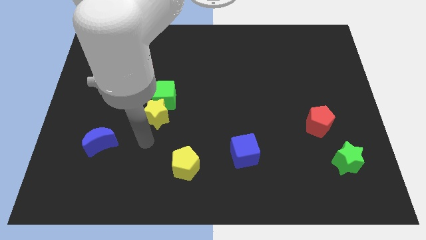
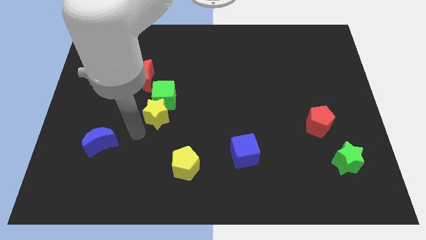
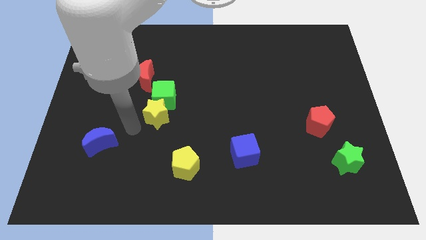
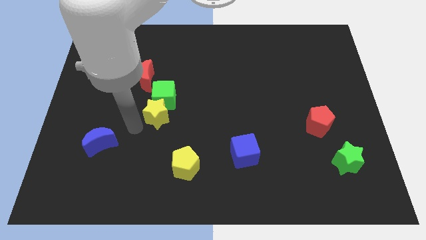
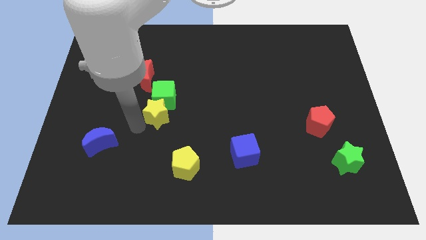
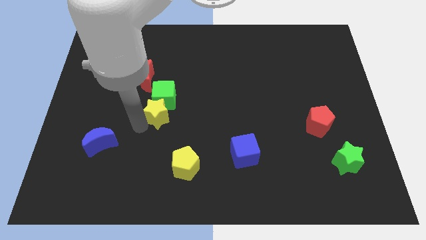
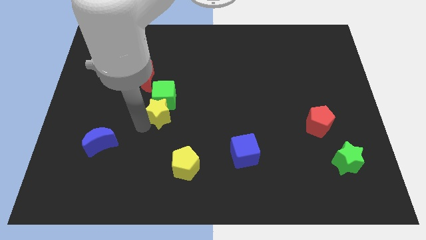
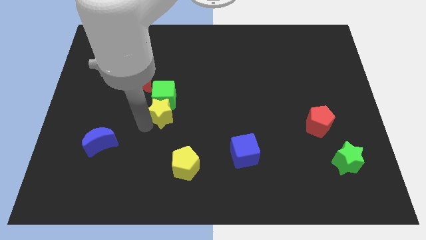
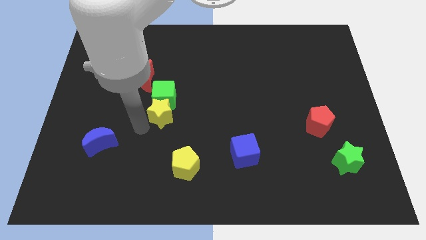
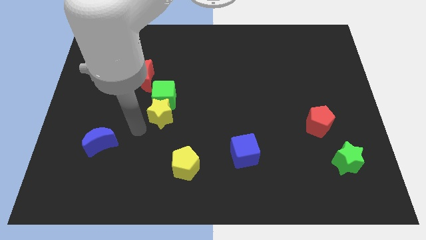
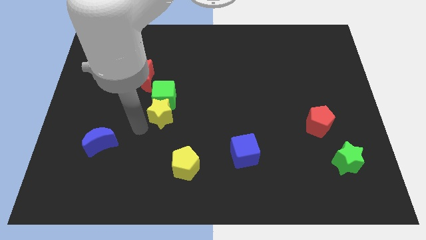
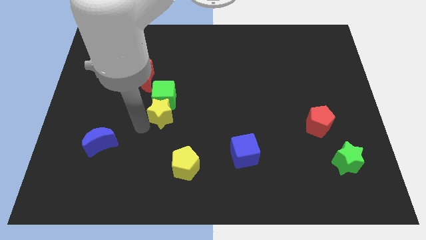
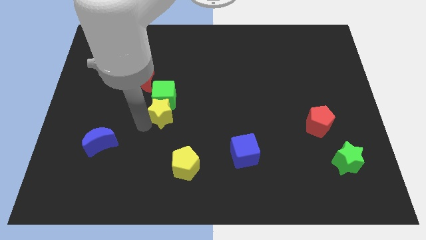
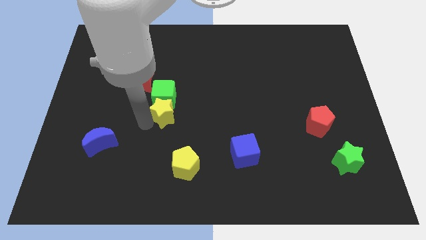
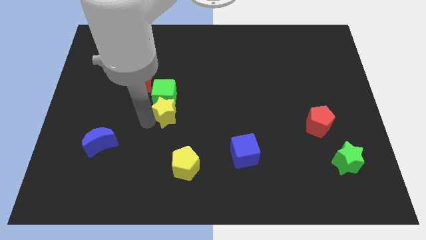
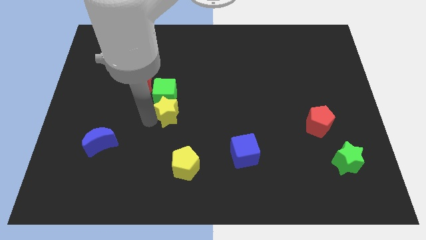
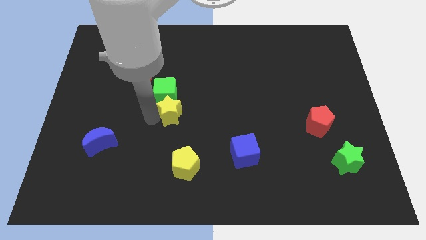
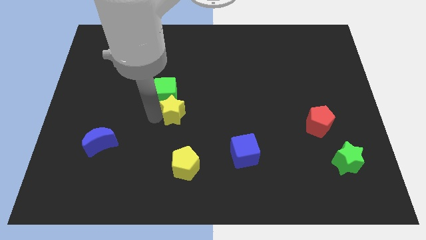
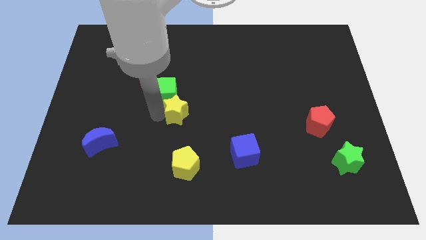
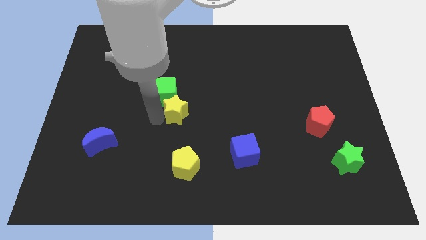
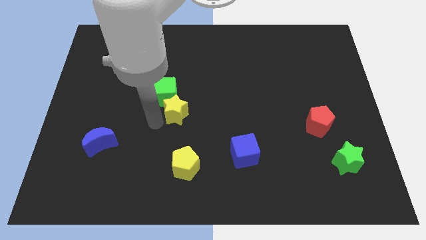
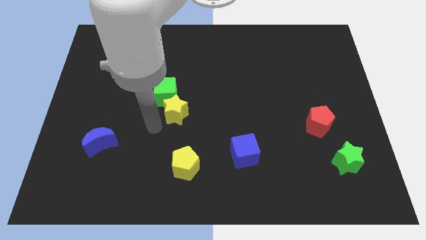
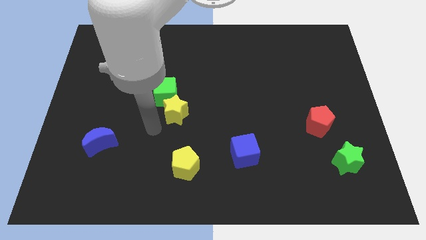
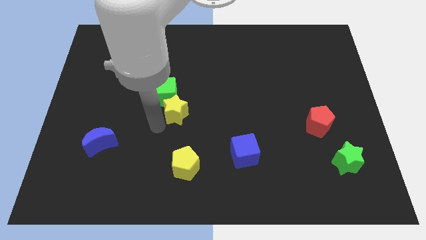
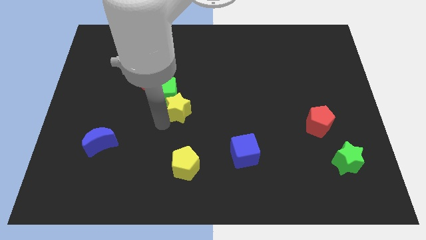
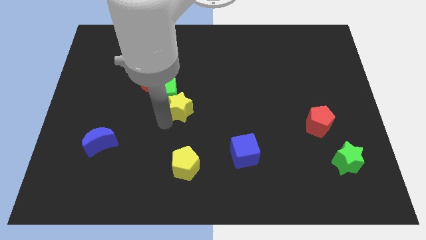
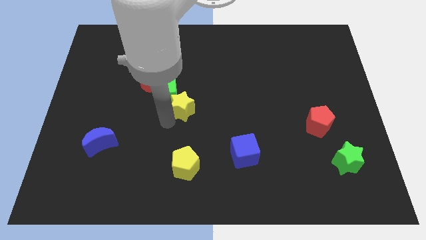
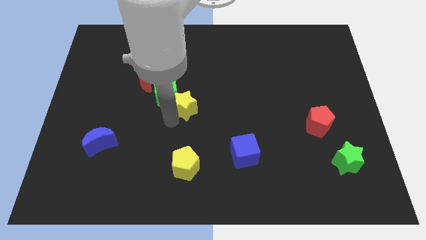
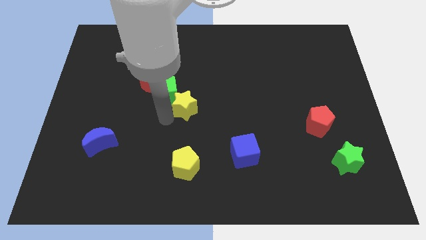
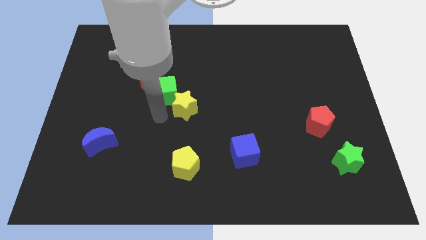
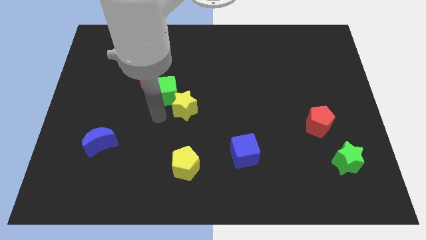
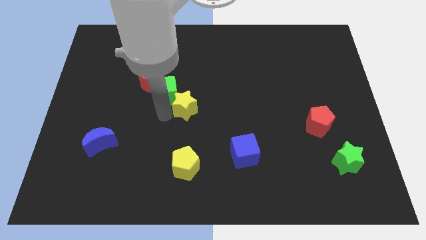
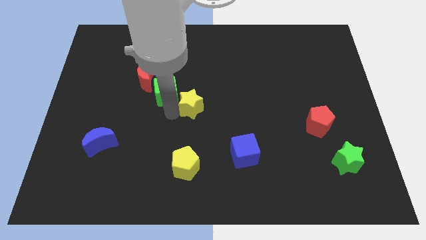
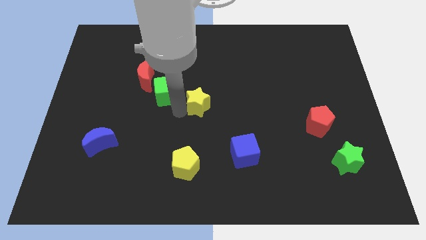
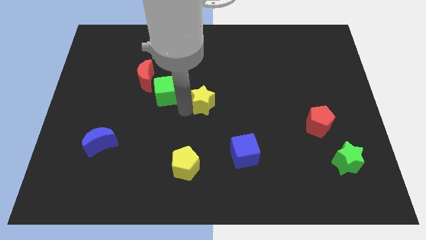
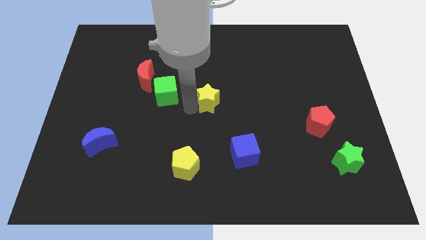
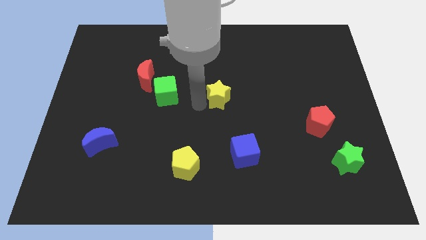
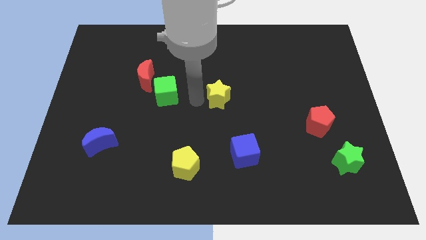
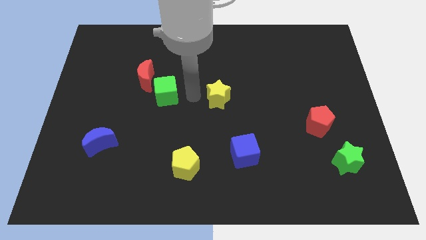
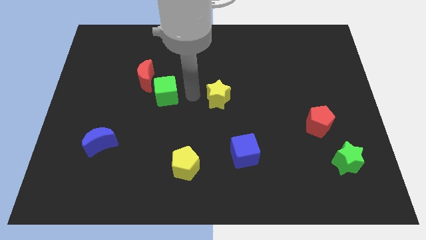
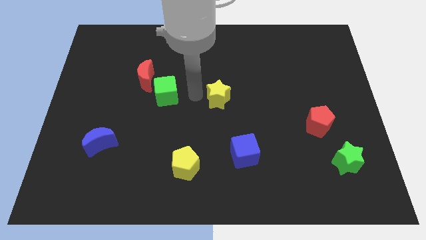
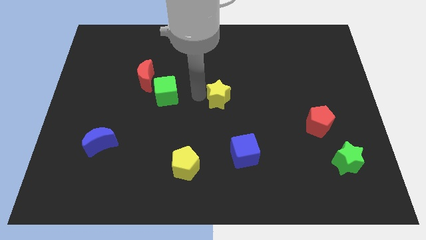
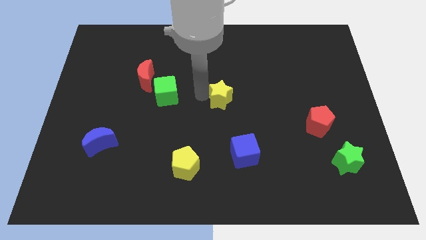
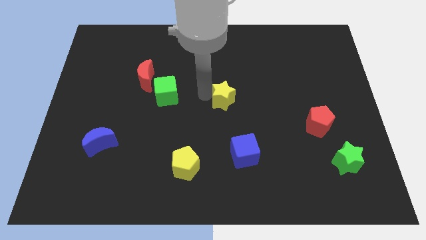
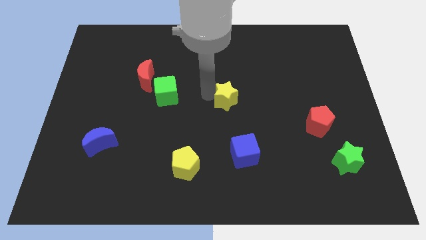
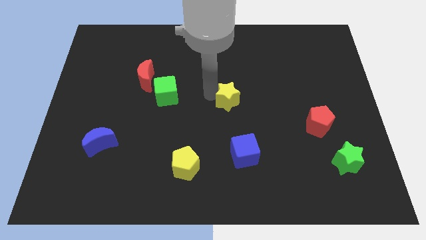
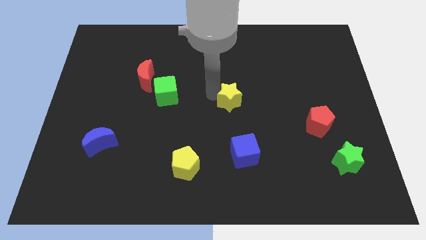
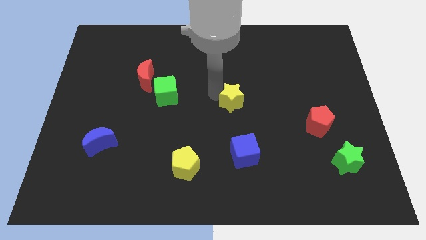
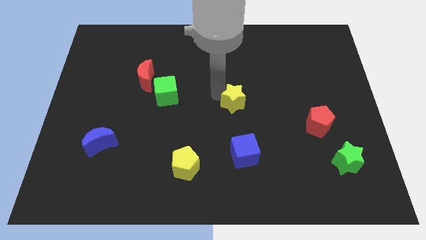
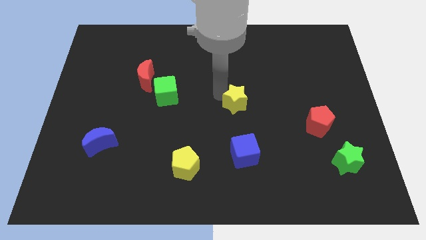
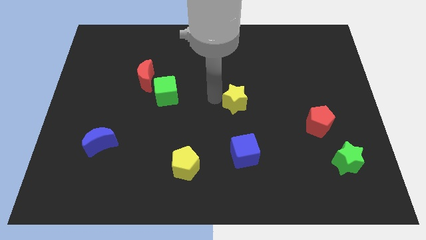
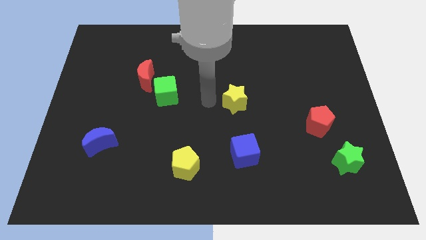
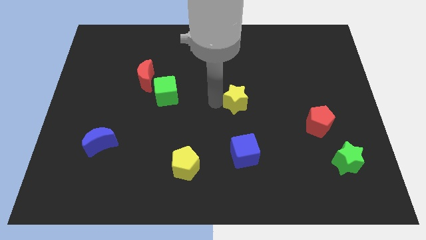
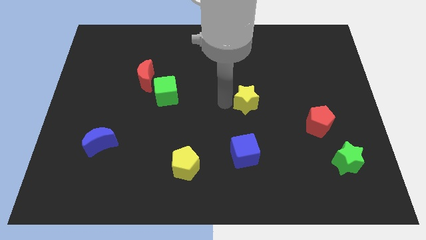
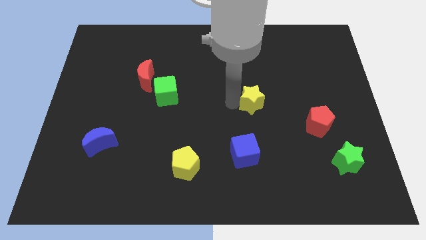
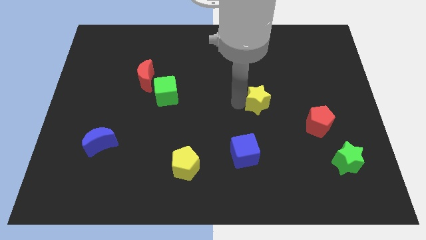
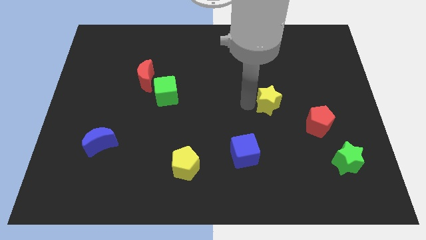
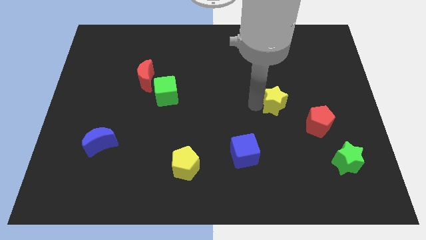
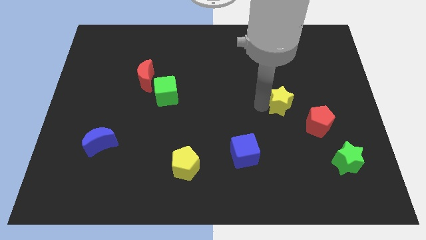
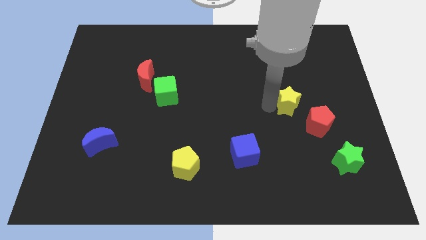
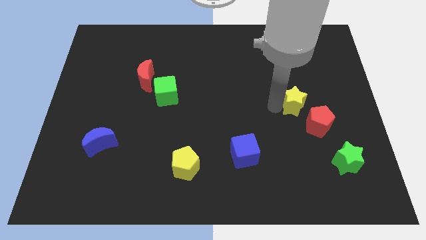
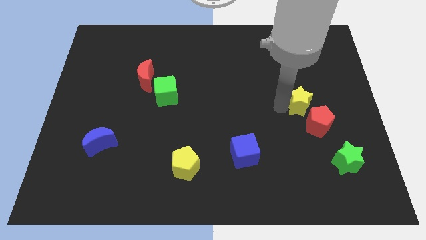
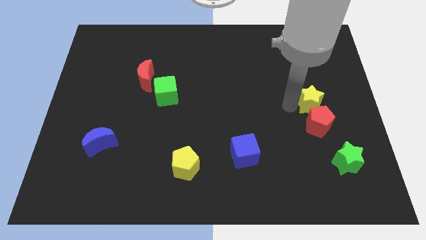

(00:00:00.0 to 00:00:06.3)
move the yellow star to the top right of the red pentagon

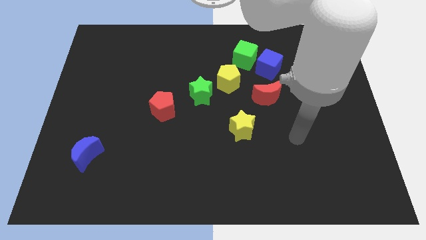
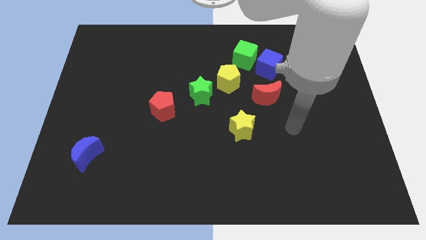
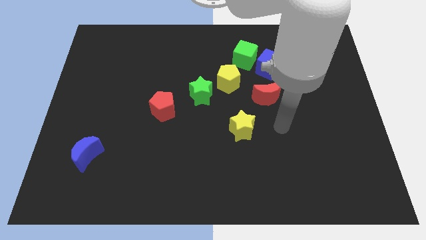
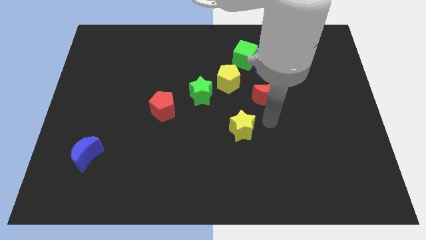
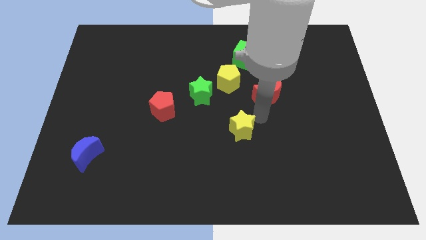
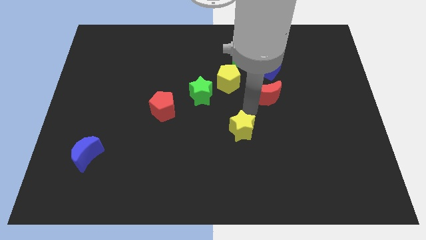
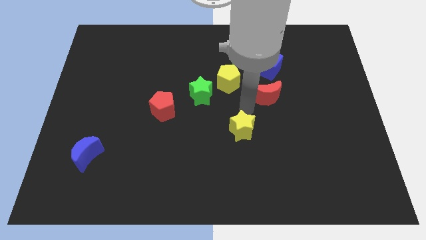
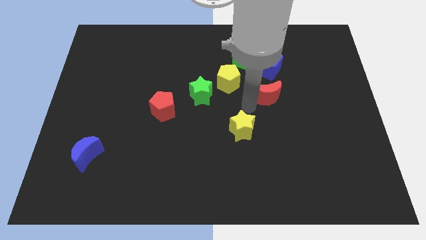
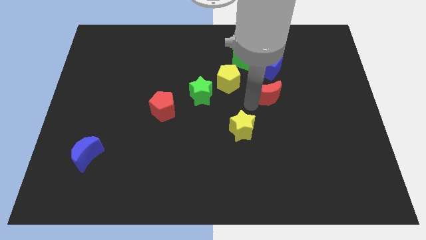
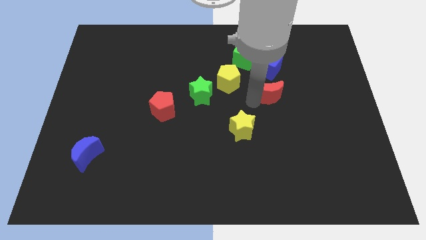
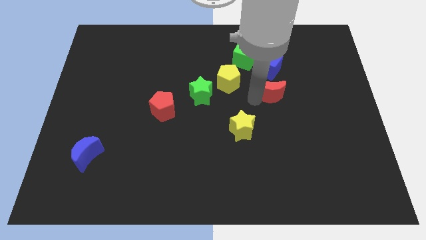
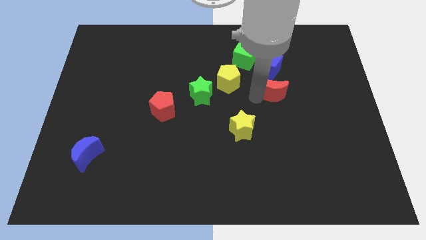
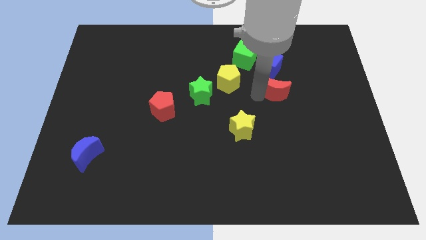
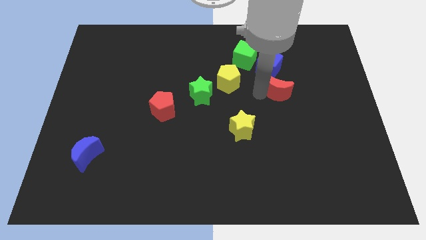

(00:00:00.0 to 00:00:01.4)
move the red moon diagonally down and to the right of the blue cube
